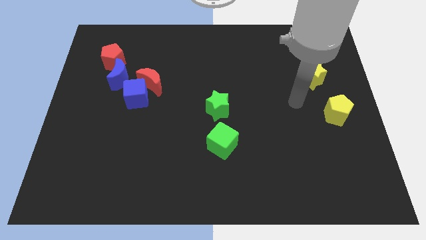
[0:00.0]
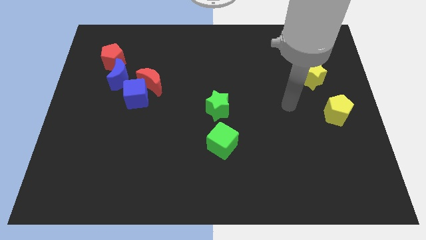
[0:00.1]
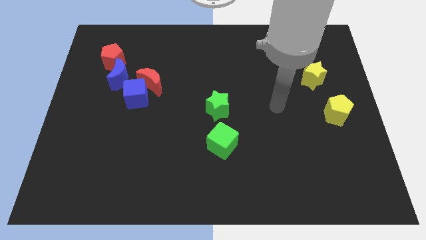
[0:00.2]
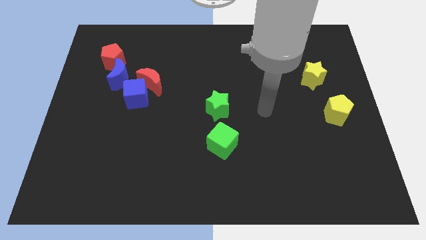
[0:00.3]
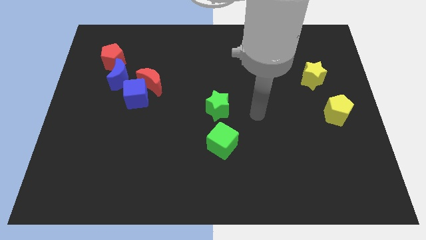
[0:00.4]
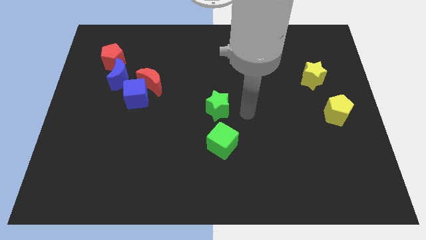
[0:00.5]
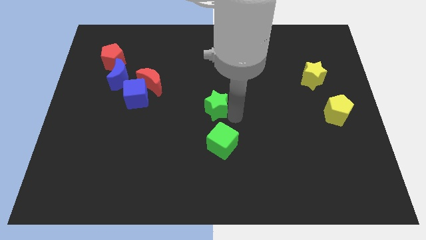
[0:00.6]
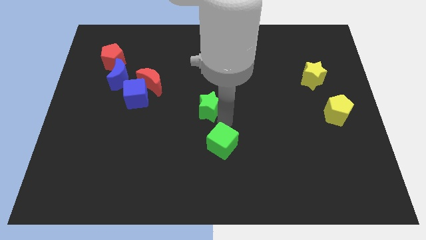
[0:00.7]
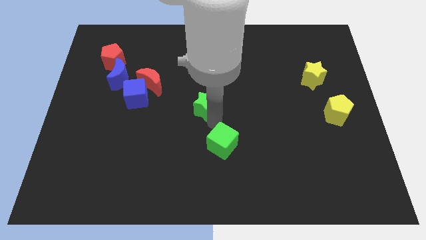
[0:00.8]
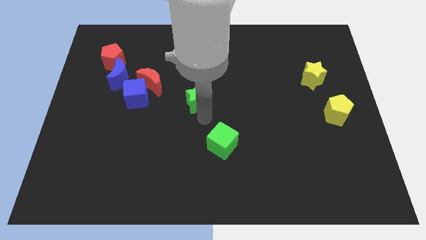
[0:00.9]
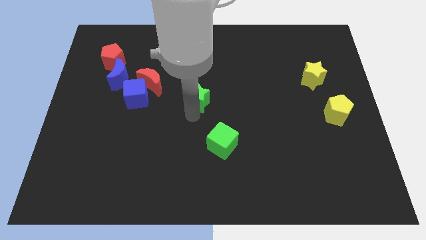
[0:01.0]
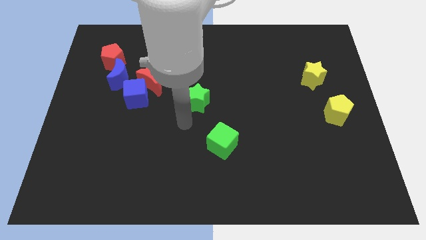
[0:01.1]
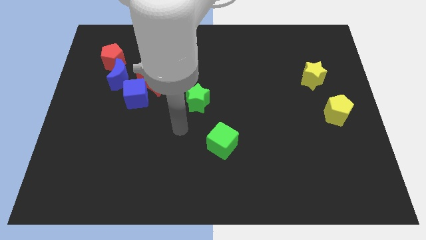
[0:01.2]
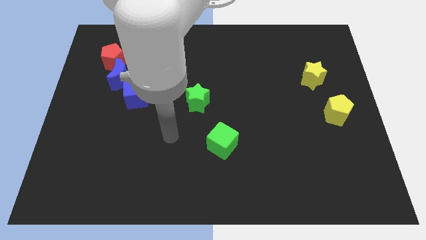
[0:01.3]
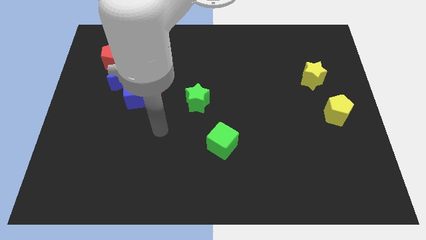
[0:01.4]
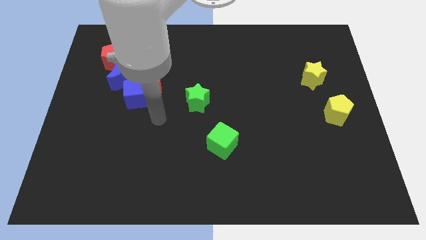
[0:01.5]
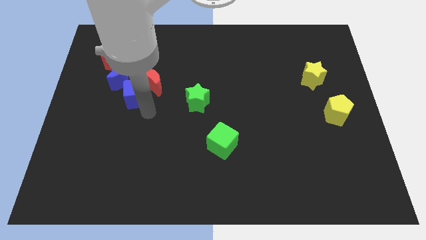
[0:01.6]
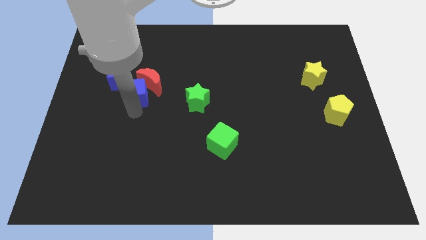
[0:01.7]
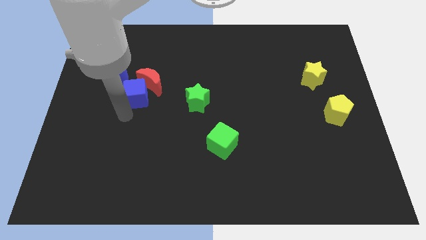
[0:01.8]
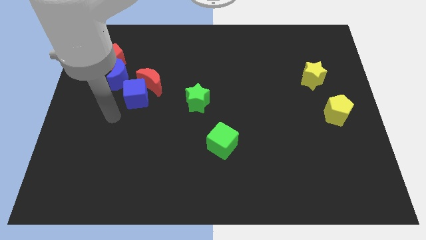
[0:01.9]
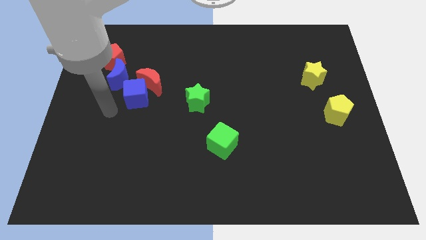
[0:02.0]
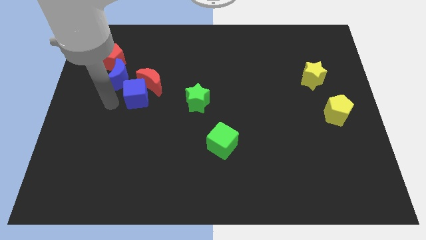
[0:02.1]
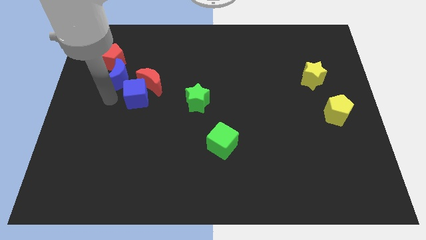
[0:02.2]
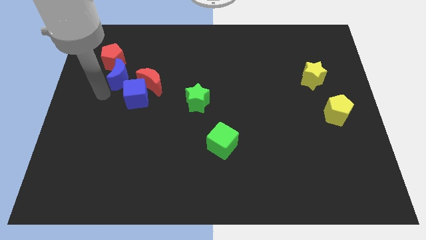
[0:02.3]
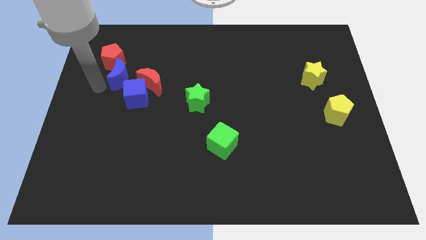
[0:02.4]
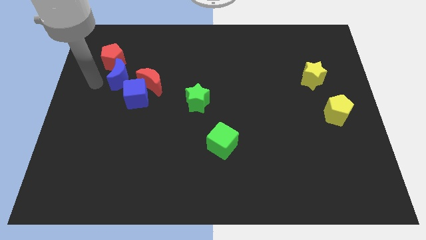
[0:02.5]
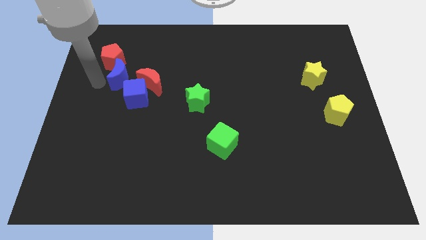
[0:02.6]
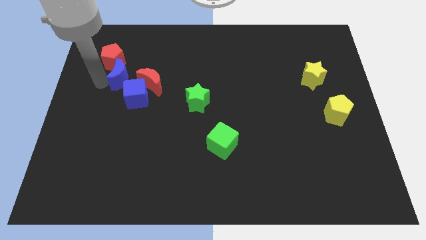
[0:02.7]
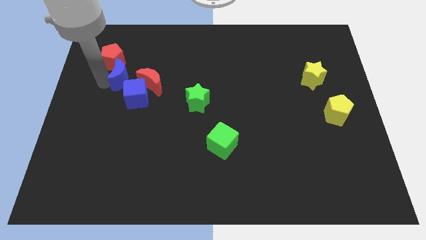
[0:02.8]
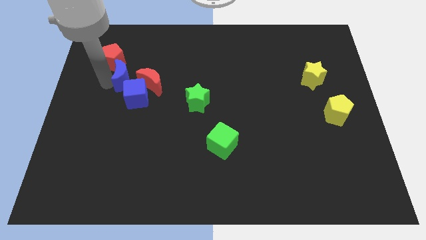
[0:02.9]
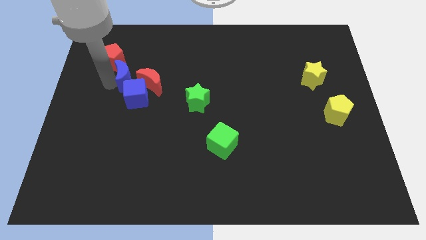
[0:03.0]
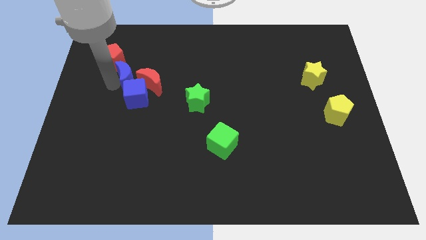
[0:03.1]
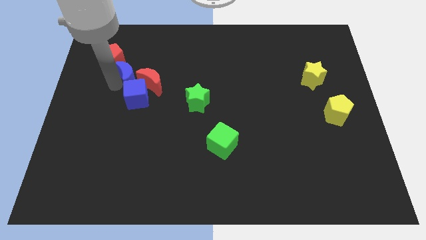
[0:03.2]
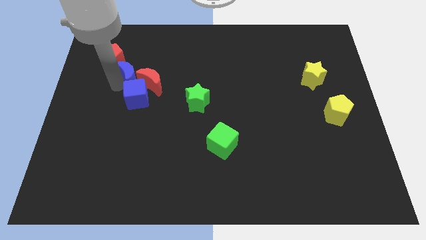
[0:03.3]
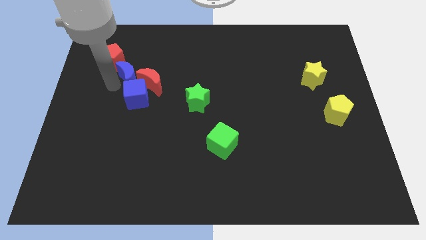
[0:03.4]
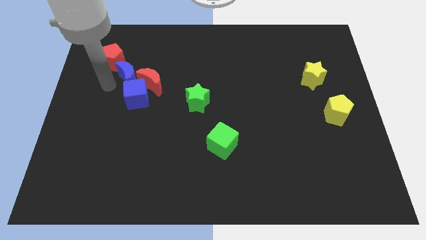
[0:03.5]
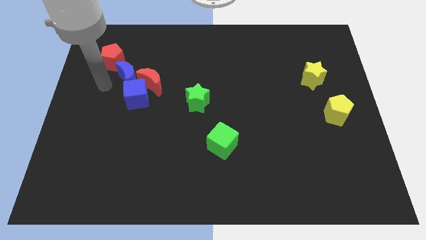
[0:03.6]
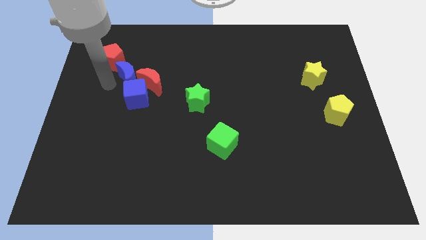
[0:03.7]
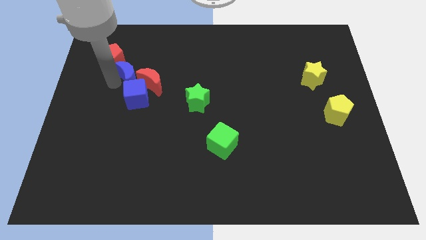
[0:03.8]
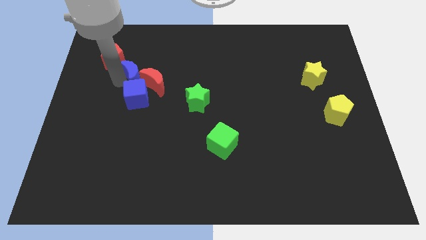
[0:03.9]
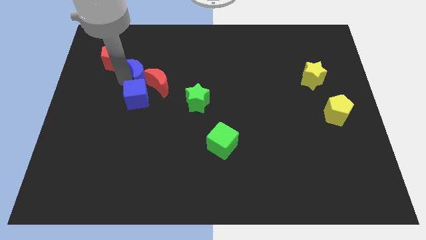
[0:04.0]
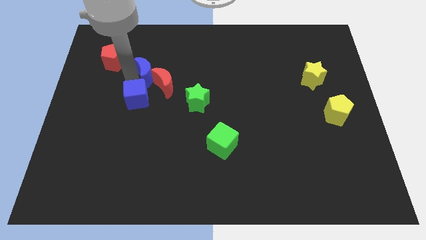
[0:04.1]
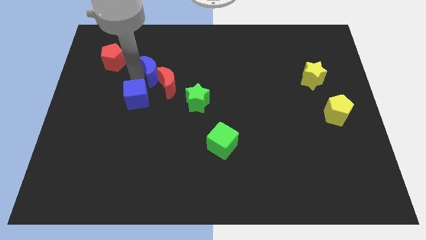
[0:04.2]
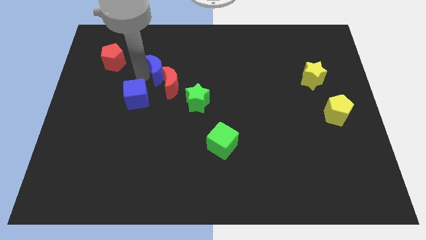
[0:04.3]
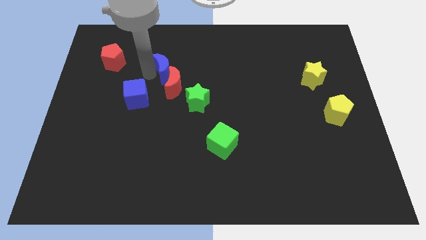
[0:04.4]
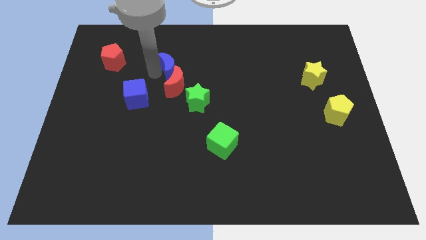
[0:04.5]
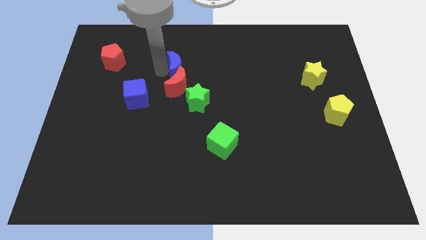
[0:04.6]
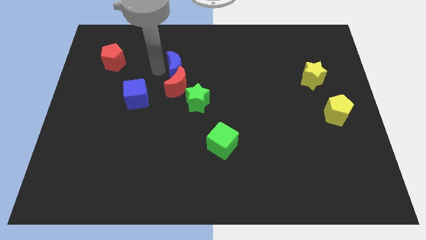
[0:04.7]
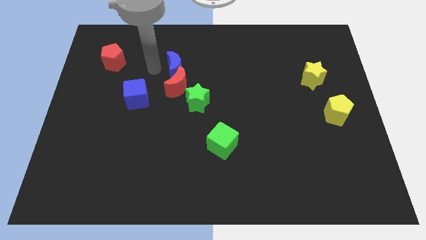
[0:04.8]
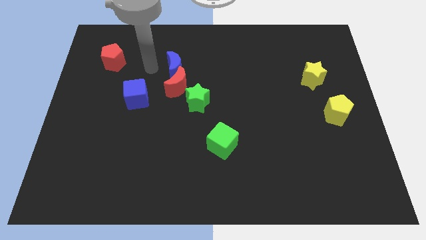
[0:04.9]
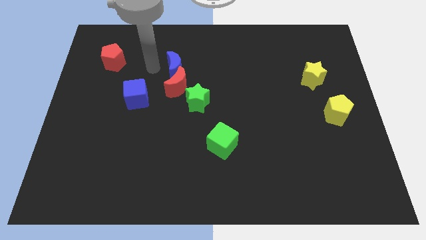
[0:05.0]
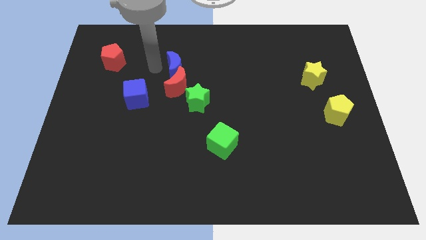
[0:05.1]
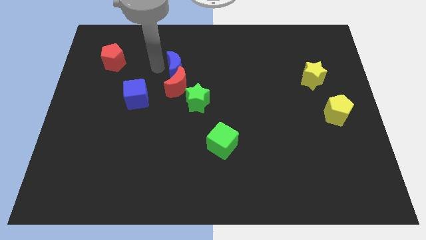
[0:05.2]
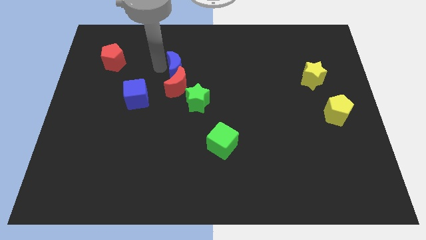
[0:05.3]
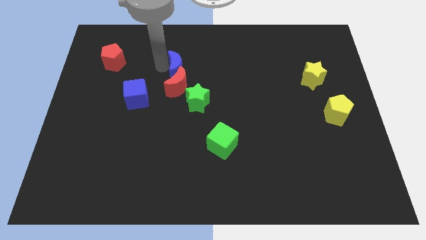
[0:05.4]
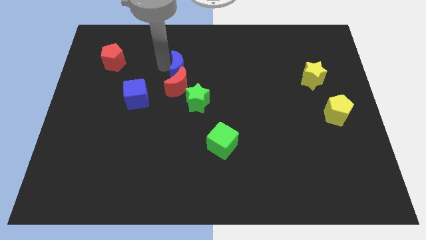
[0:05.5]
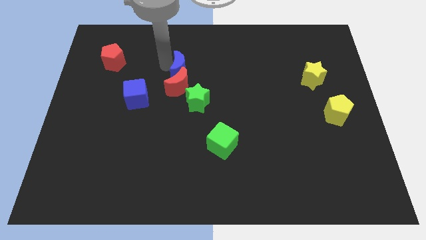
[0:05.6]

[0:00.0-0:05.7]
move the blue moon to the top of the green star

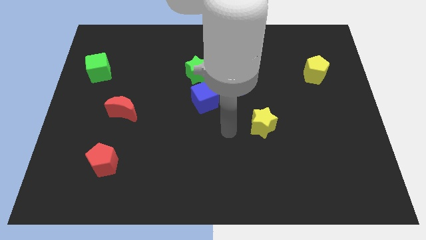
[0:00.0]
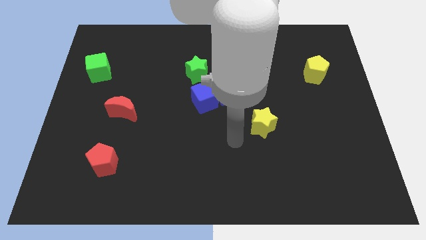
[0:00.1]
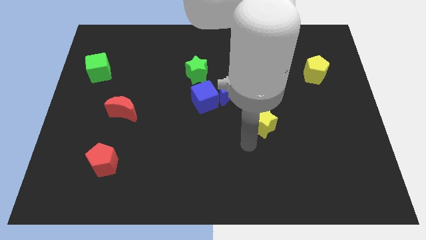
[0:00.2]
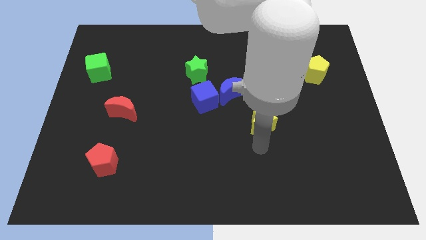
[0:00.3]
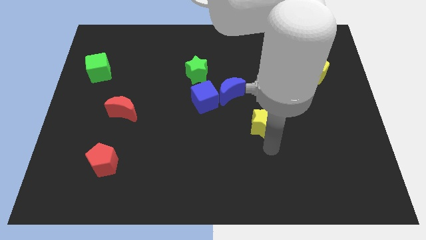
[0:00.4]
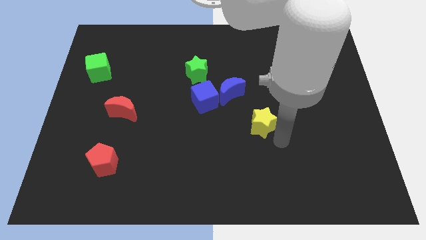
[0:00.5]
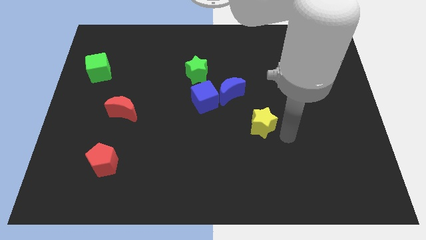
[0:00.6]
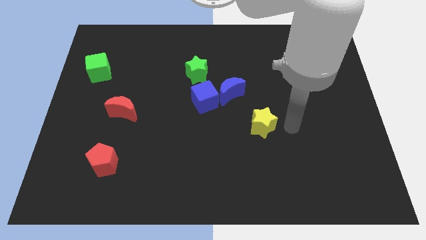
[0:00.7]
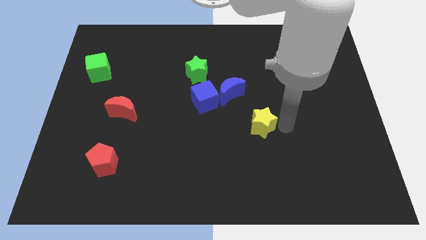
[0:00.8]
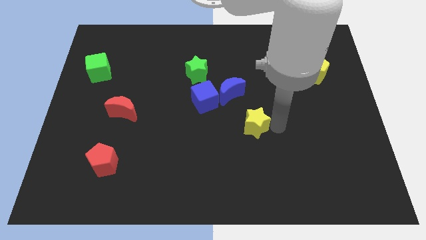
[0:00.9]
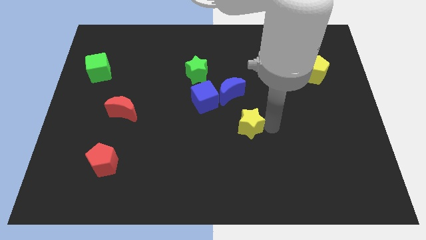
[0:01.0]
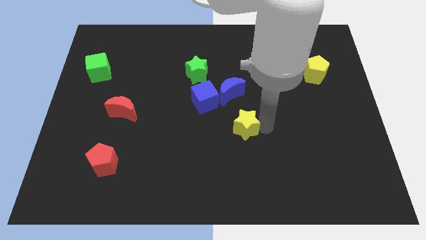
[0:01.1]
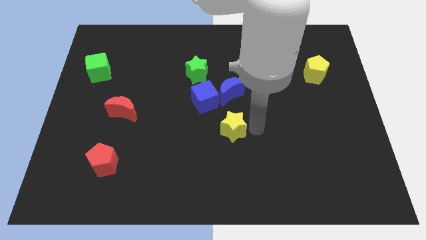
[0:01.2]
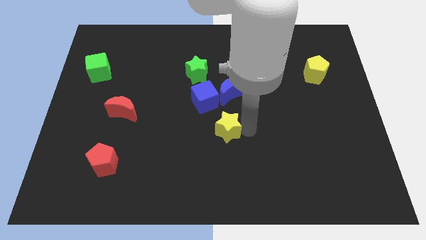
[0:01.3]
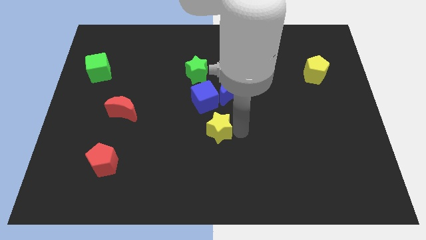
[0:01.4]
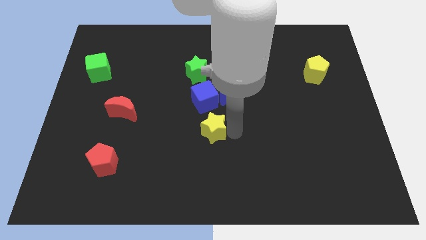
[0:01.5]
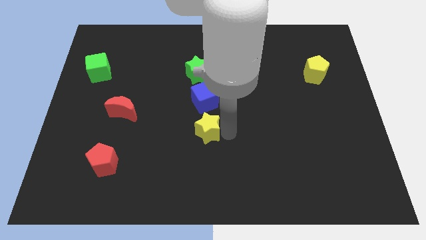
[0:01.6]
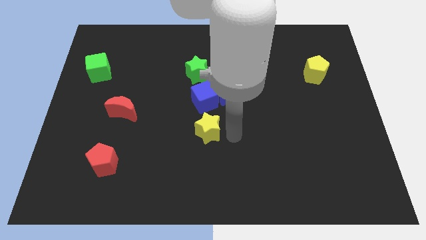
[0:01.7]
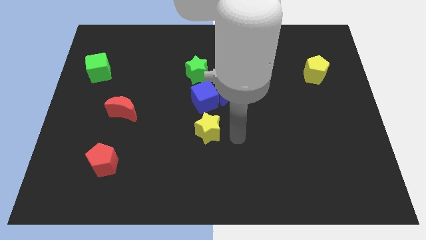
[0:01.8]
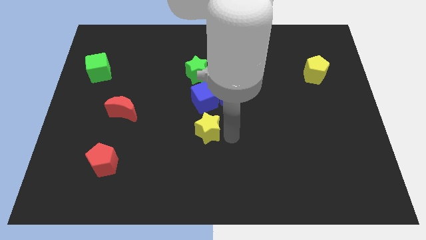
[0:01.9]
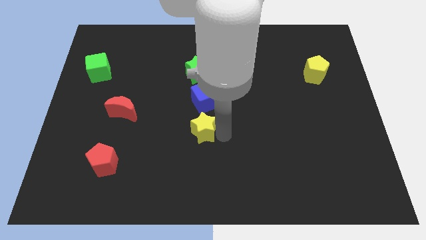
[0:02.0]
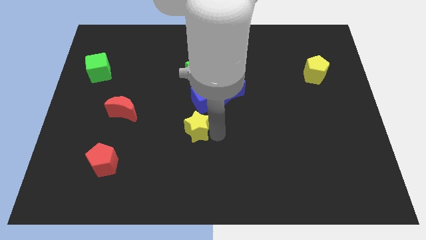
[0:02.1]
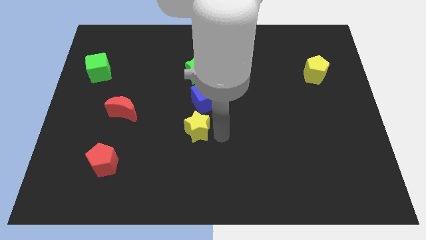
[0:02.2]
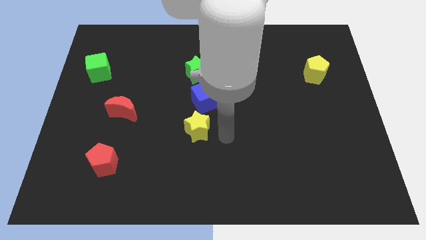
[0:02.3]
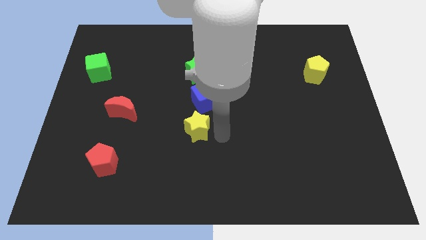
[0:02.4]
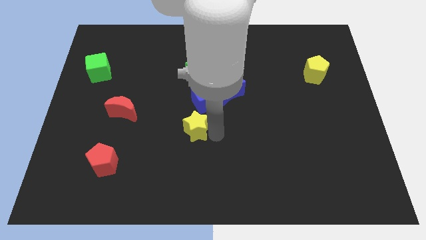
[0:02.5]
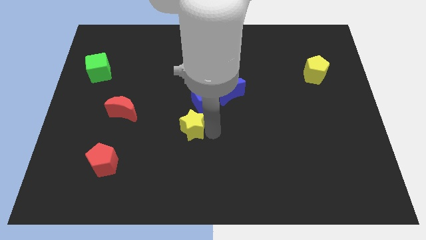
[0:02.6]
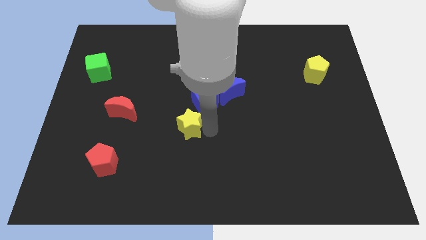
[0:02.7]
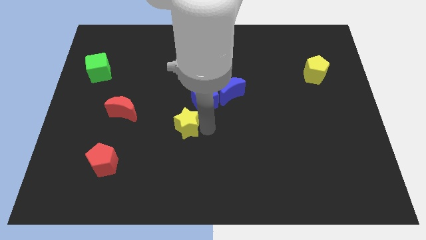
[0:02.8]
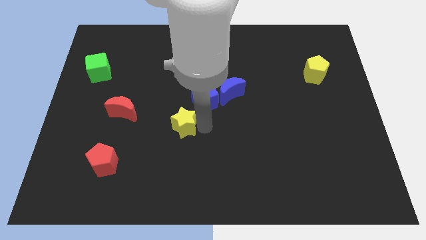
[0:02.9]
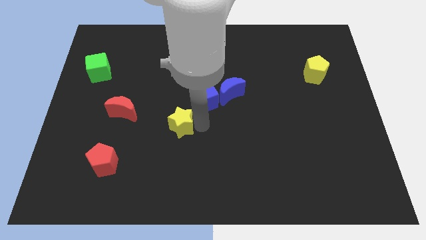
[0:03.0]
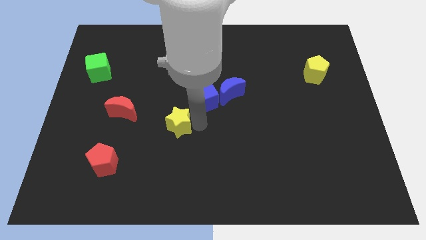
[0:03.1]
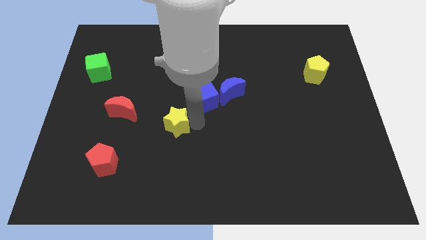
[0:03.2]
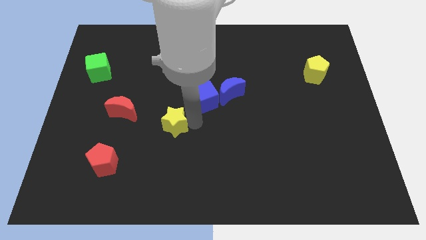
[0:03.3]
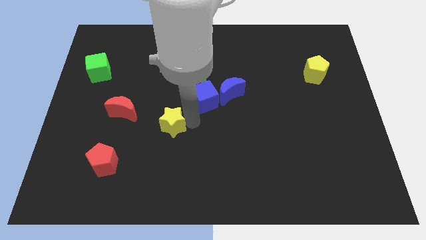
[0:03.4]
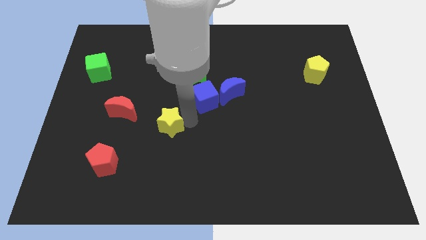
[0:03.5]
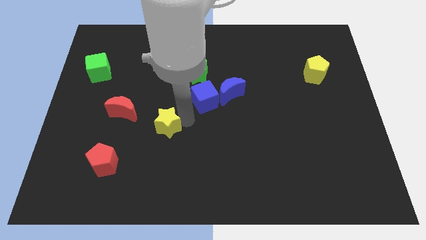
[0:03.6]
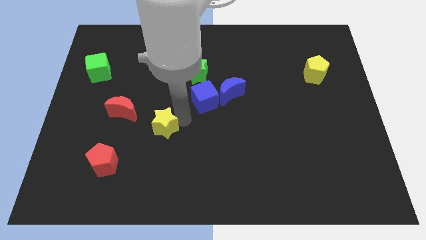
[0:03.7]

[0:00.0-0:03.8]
push the yellow star to the bottom right side of the red moon
